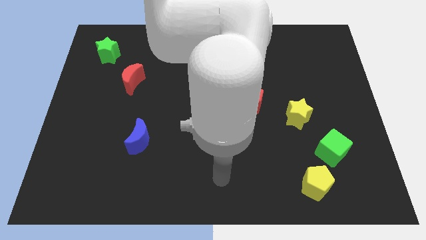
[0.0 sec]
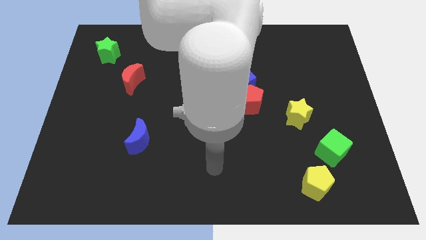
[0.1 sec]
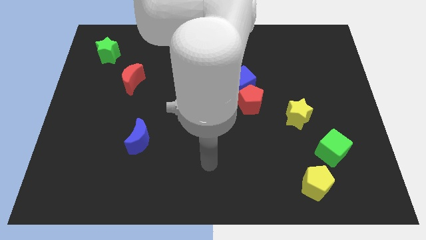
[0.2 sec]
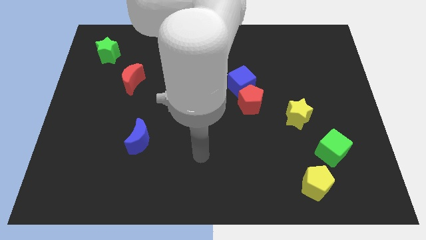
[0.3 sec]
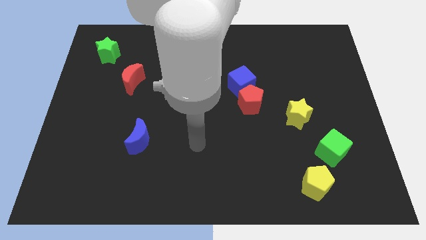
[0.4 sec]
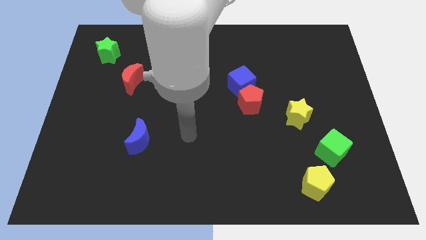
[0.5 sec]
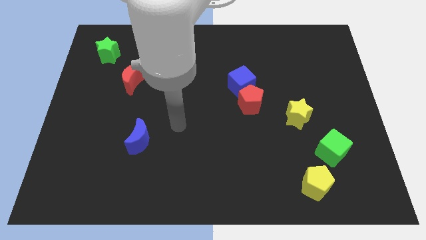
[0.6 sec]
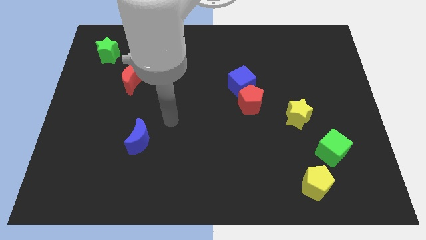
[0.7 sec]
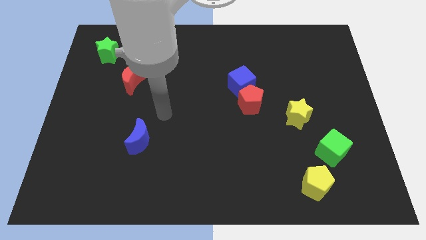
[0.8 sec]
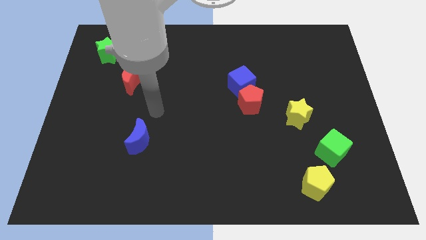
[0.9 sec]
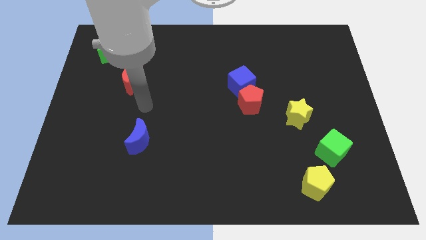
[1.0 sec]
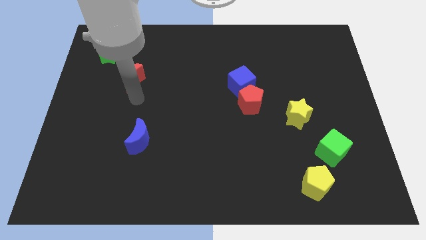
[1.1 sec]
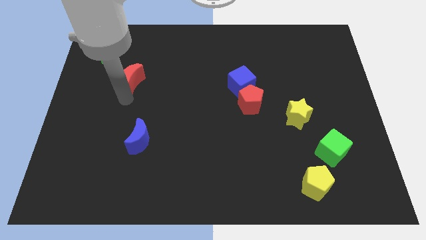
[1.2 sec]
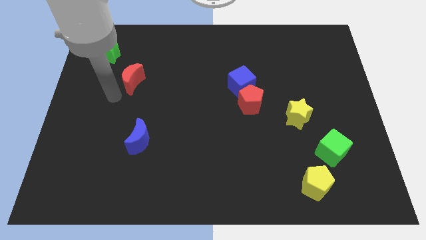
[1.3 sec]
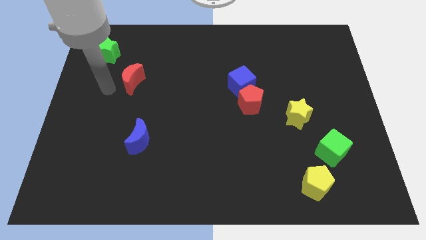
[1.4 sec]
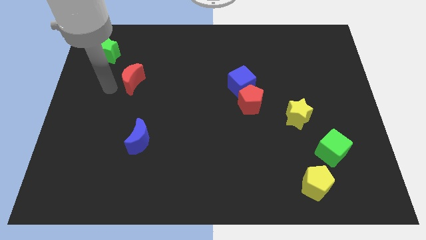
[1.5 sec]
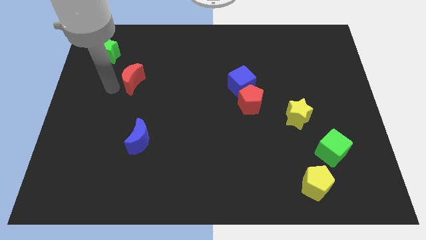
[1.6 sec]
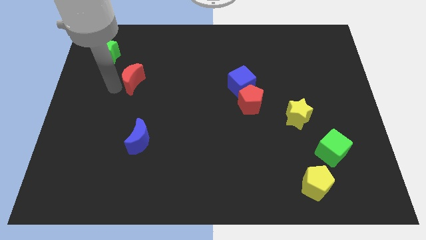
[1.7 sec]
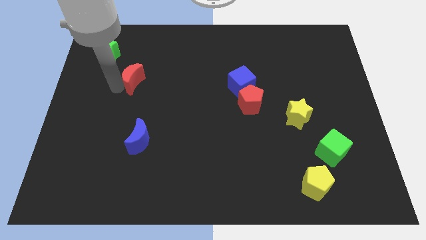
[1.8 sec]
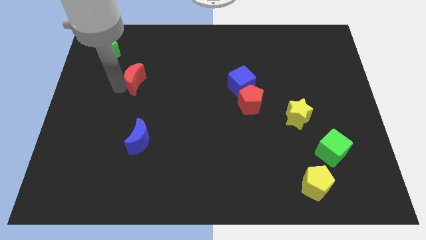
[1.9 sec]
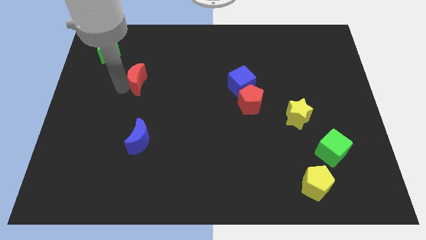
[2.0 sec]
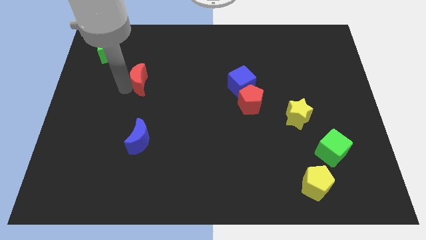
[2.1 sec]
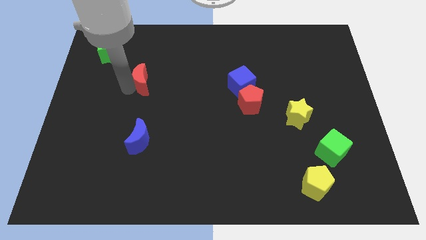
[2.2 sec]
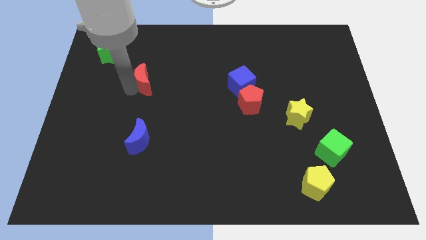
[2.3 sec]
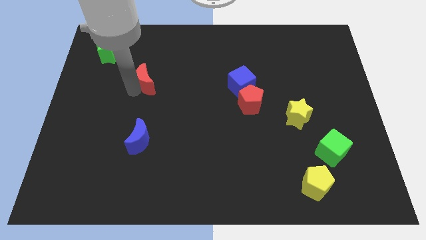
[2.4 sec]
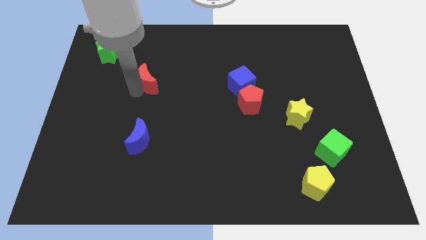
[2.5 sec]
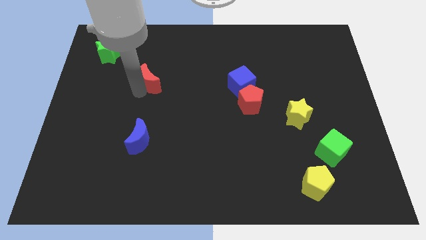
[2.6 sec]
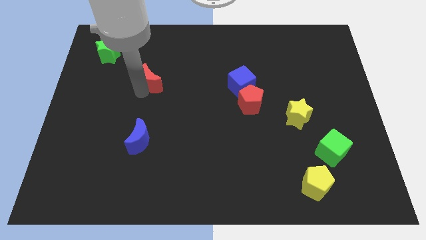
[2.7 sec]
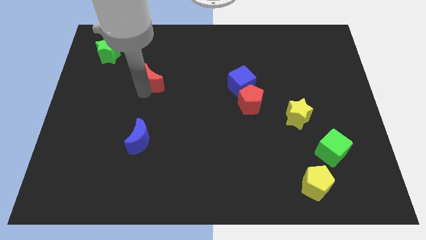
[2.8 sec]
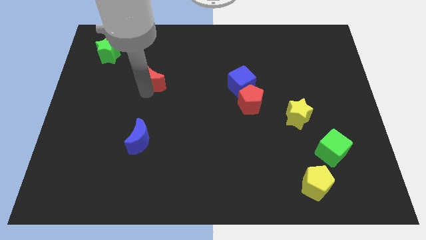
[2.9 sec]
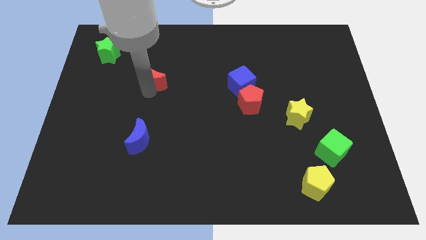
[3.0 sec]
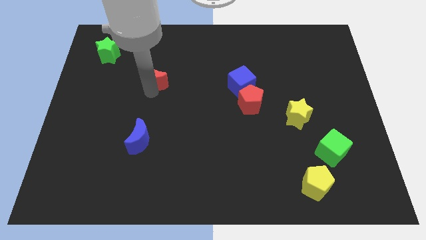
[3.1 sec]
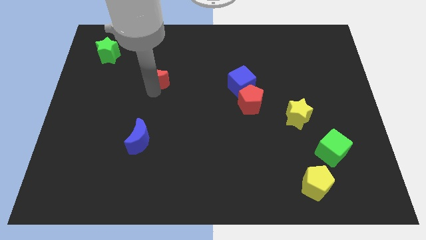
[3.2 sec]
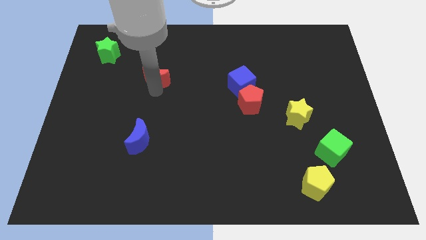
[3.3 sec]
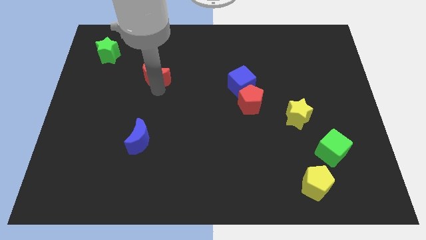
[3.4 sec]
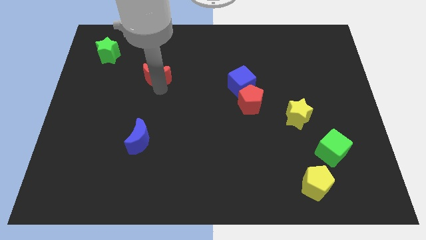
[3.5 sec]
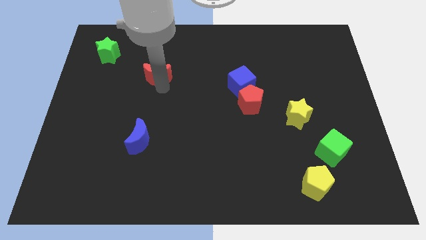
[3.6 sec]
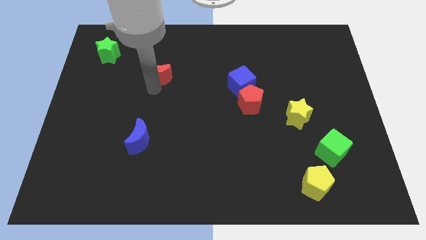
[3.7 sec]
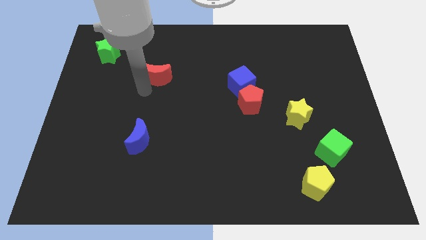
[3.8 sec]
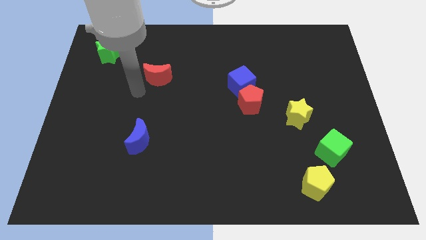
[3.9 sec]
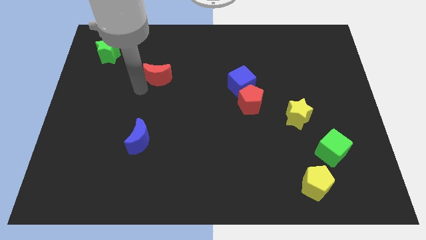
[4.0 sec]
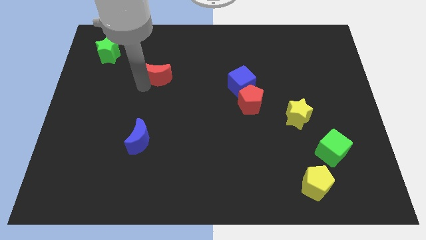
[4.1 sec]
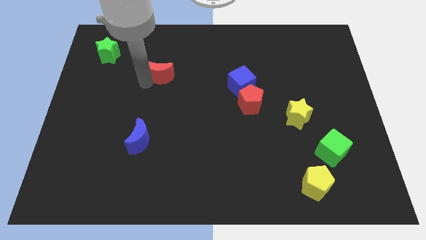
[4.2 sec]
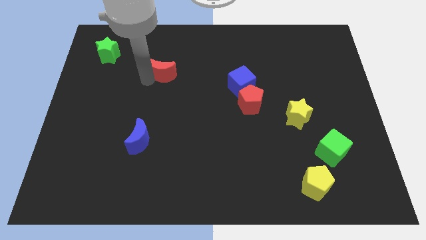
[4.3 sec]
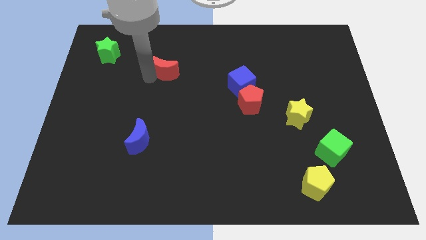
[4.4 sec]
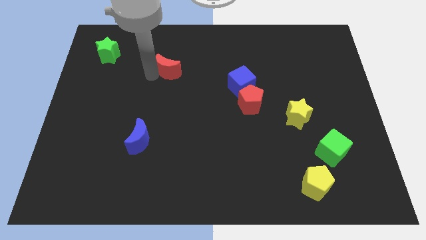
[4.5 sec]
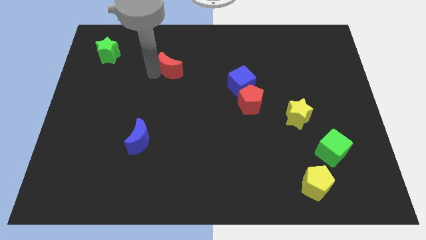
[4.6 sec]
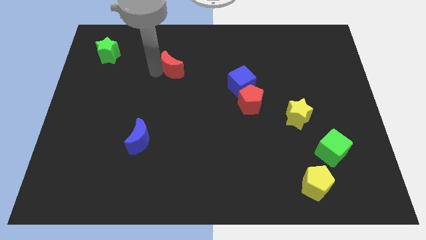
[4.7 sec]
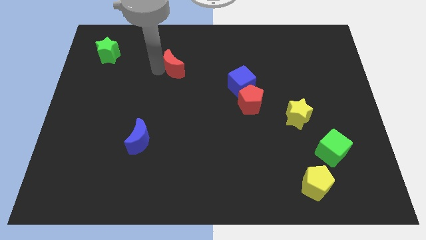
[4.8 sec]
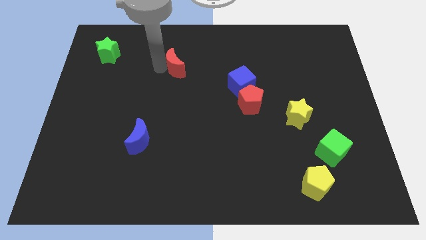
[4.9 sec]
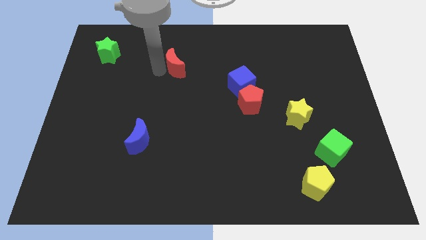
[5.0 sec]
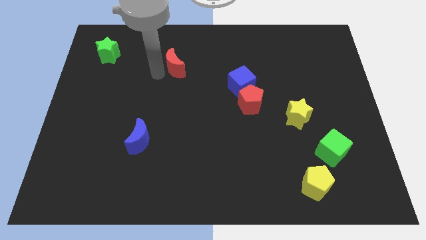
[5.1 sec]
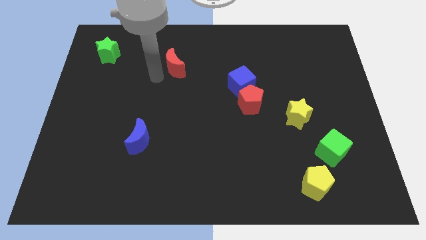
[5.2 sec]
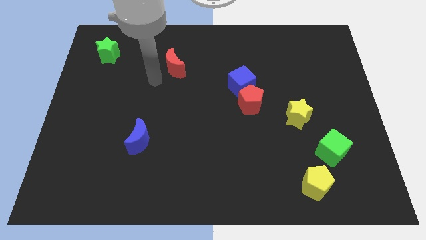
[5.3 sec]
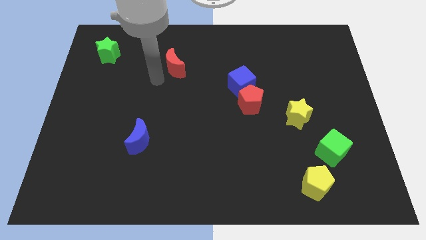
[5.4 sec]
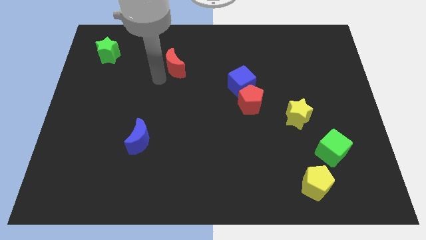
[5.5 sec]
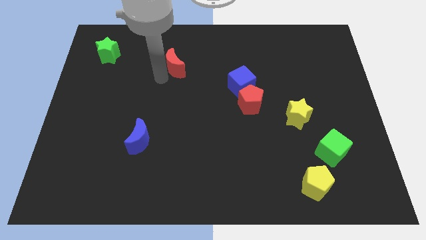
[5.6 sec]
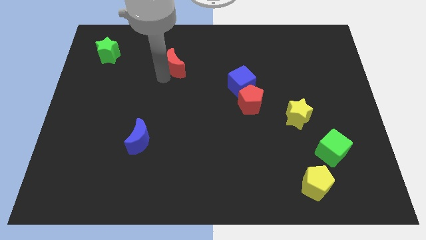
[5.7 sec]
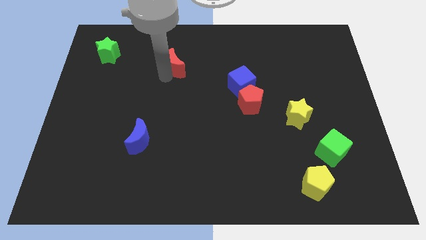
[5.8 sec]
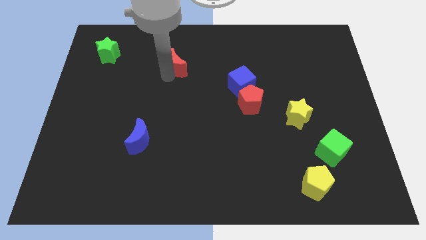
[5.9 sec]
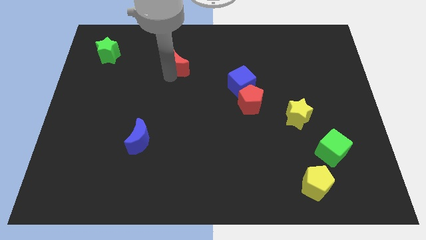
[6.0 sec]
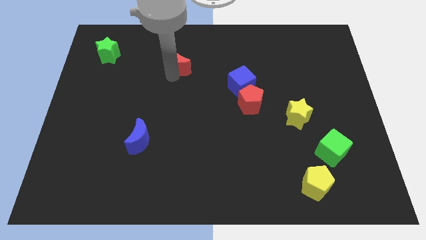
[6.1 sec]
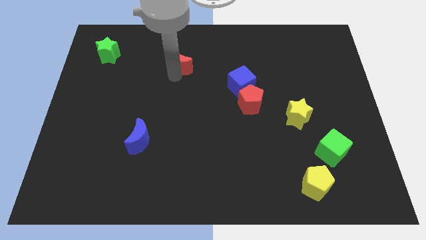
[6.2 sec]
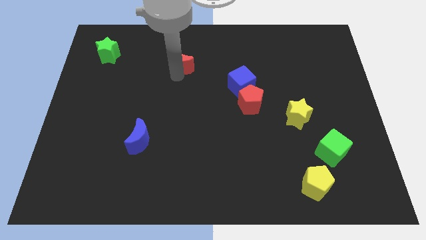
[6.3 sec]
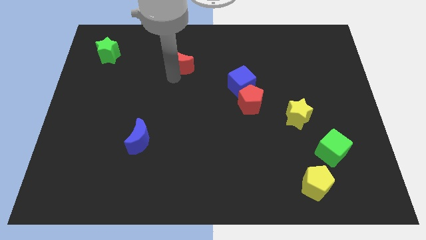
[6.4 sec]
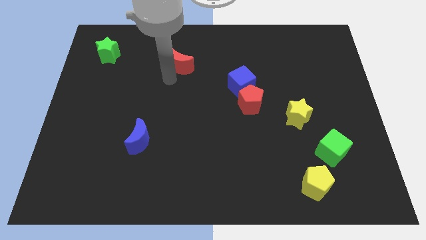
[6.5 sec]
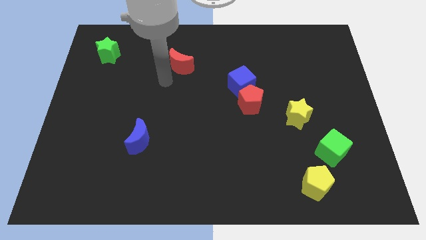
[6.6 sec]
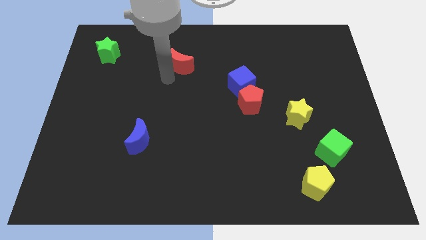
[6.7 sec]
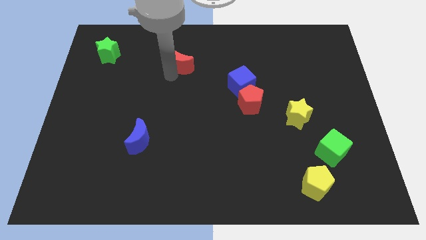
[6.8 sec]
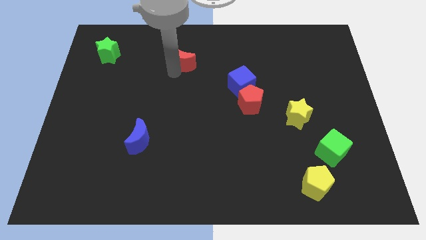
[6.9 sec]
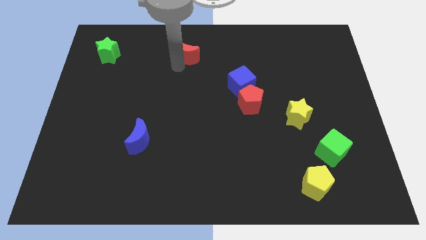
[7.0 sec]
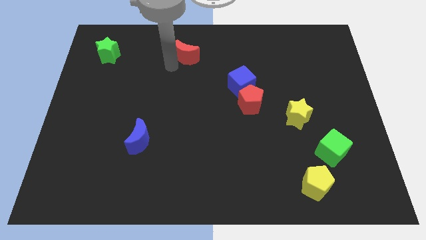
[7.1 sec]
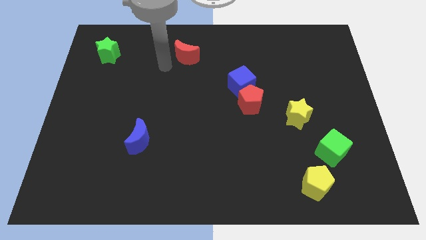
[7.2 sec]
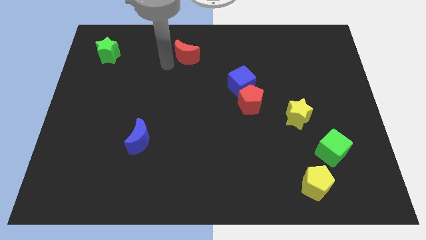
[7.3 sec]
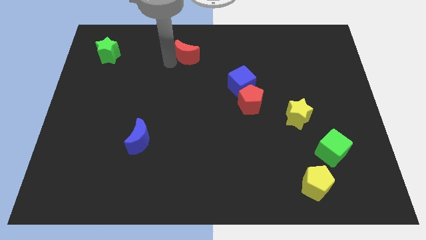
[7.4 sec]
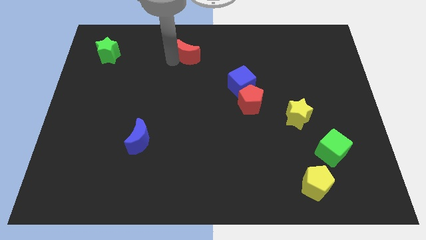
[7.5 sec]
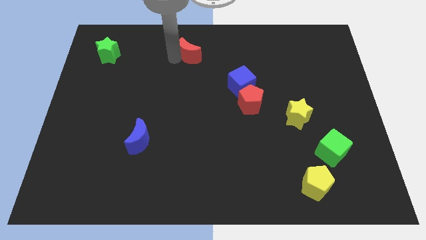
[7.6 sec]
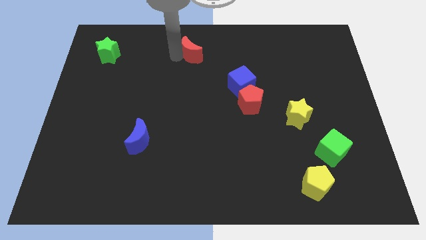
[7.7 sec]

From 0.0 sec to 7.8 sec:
slide the red moon to the towards your base
